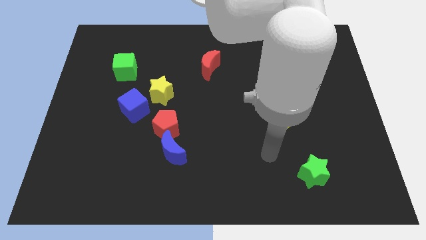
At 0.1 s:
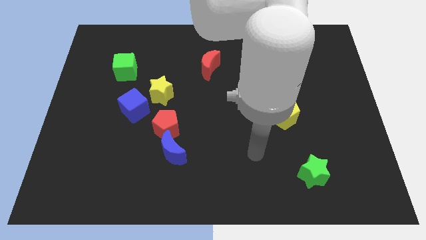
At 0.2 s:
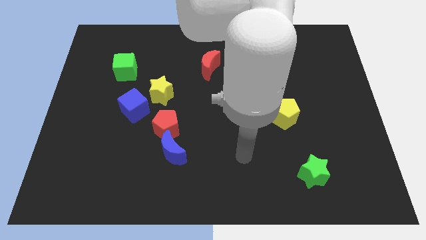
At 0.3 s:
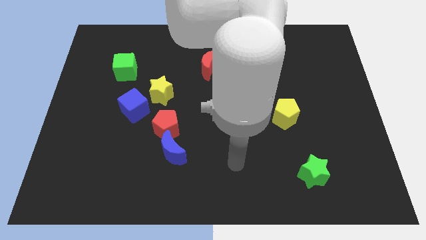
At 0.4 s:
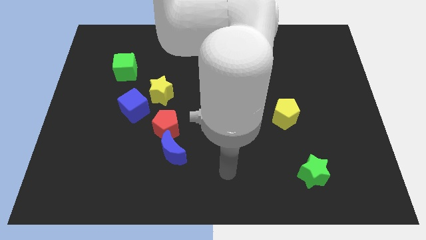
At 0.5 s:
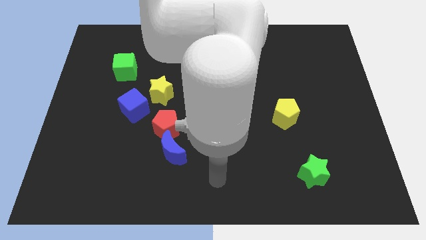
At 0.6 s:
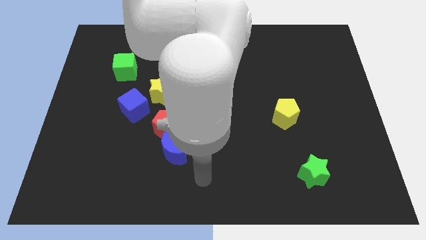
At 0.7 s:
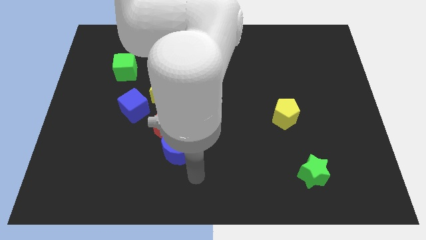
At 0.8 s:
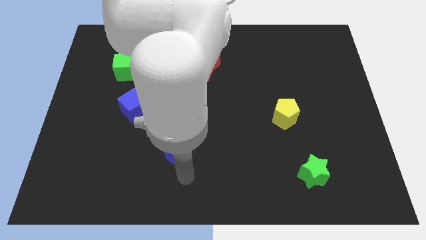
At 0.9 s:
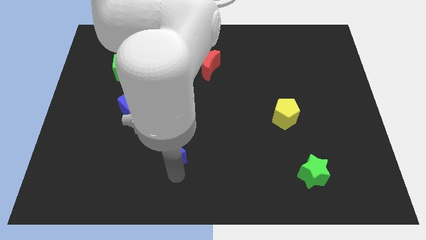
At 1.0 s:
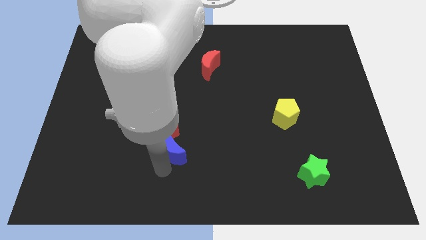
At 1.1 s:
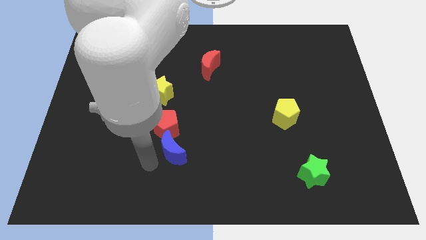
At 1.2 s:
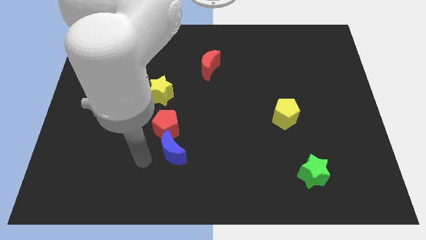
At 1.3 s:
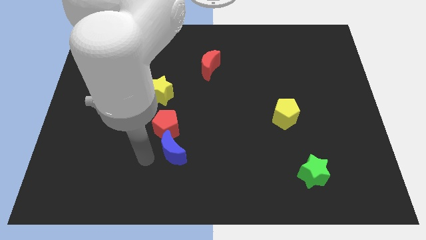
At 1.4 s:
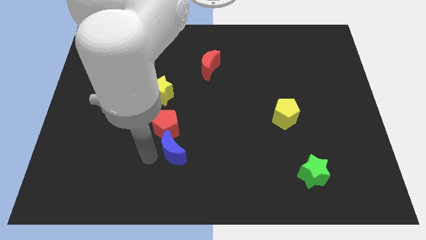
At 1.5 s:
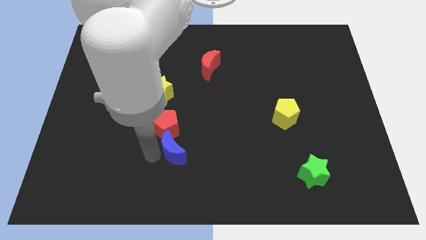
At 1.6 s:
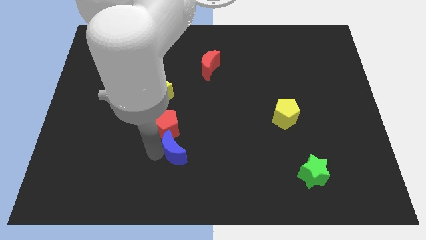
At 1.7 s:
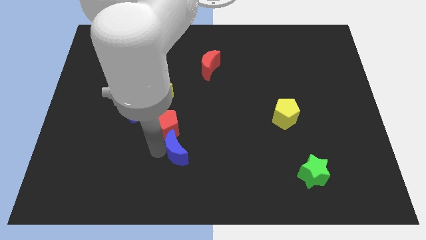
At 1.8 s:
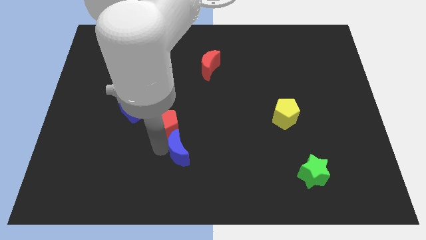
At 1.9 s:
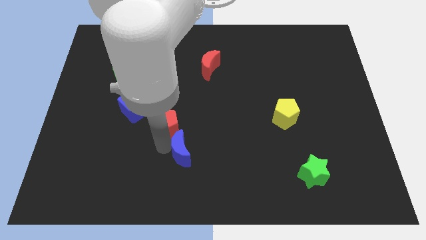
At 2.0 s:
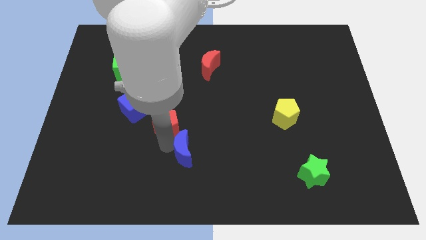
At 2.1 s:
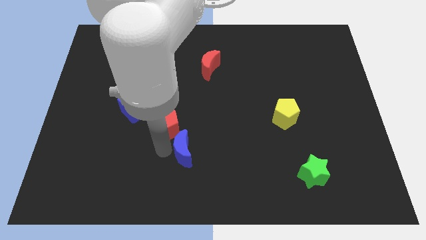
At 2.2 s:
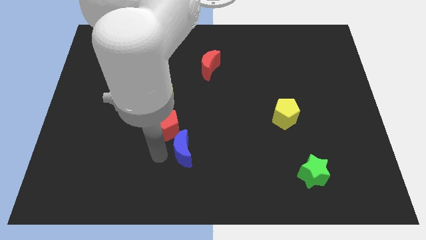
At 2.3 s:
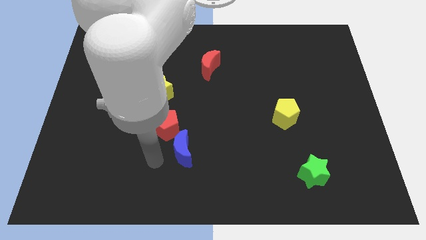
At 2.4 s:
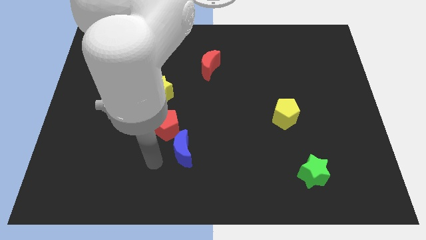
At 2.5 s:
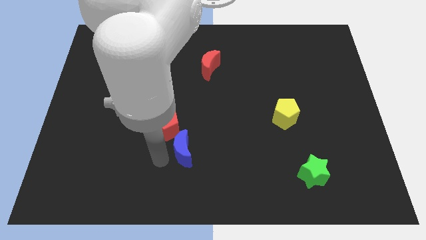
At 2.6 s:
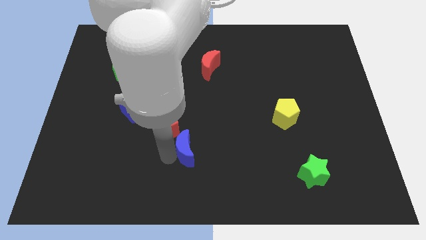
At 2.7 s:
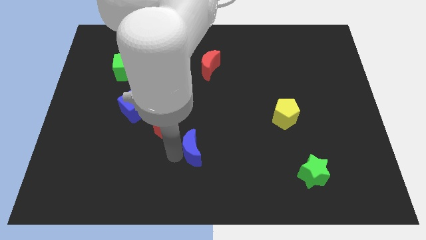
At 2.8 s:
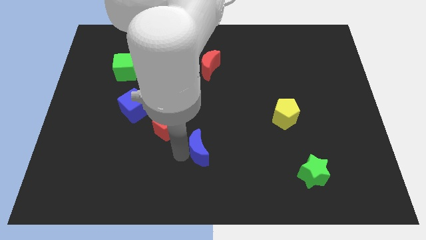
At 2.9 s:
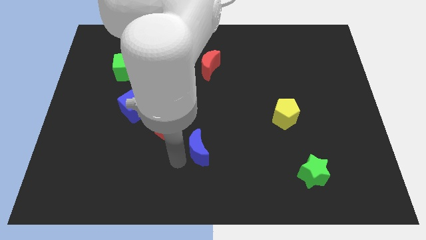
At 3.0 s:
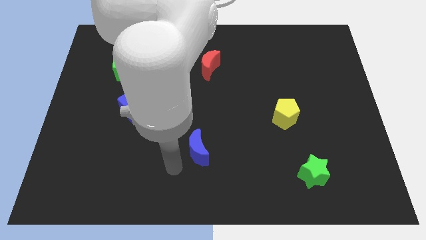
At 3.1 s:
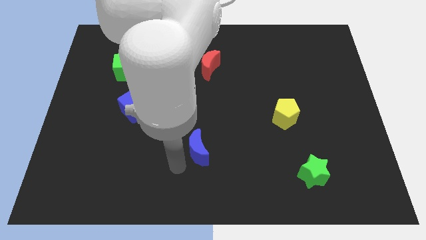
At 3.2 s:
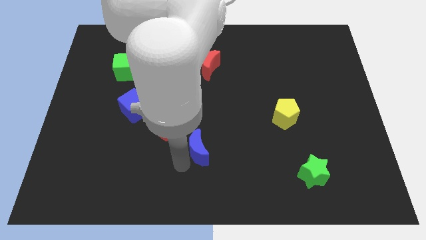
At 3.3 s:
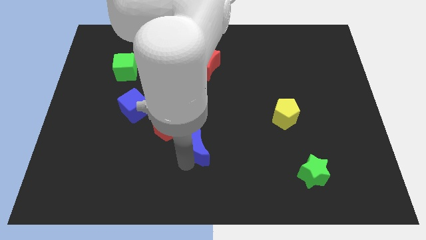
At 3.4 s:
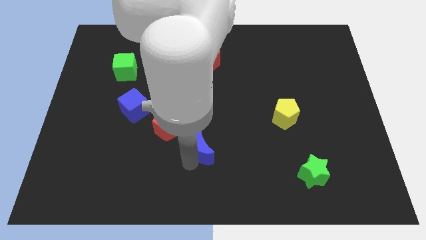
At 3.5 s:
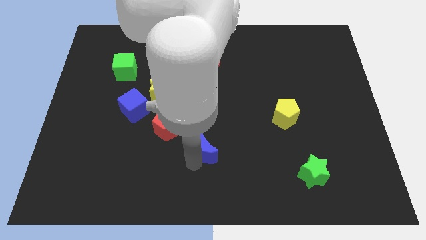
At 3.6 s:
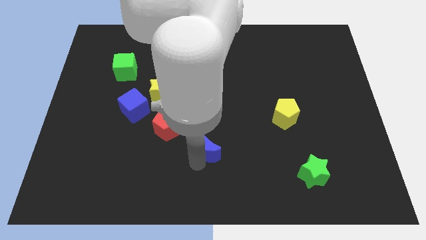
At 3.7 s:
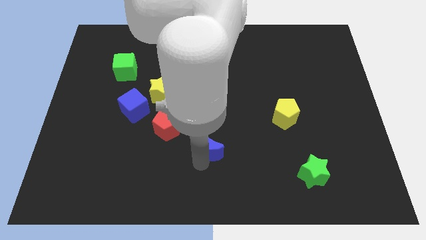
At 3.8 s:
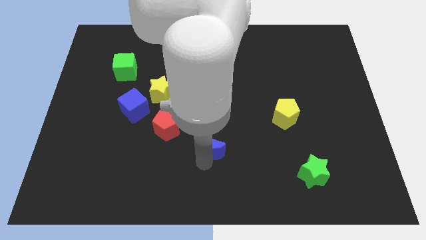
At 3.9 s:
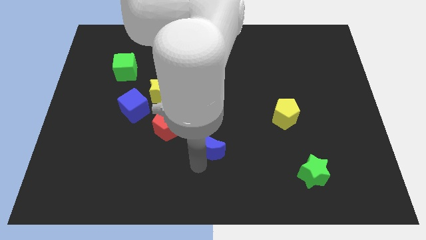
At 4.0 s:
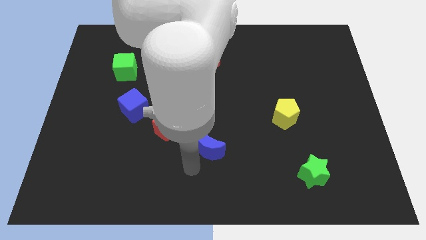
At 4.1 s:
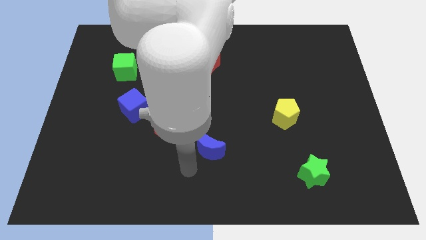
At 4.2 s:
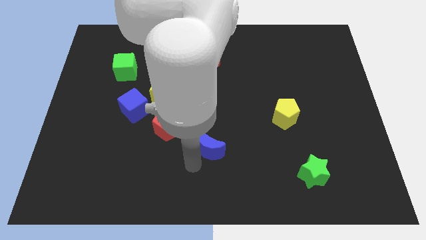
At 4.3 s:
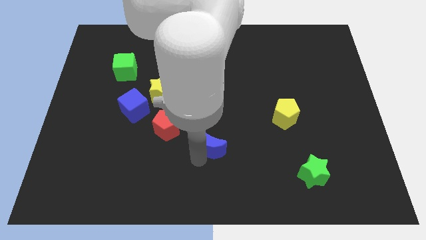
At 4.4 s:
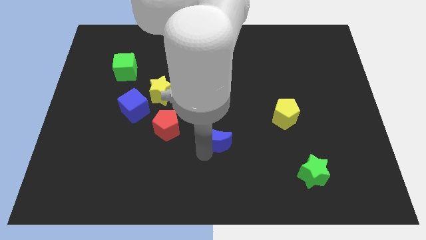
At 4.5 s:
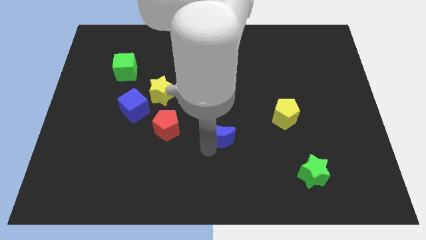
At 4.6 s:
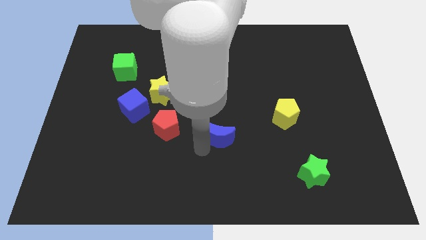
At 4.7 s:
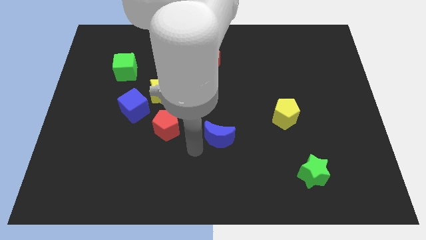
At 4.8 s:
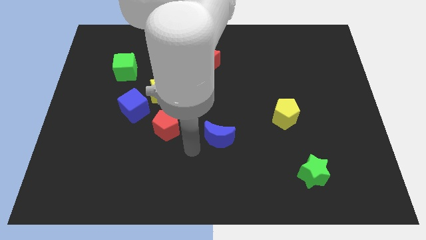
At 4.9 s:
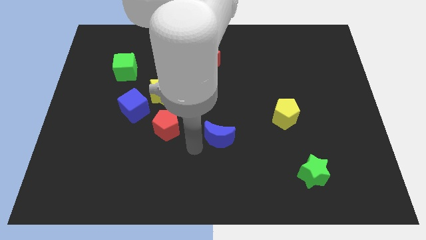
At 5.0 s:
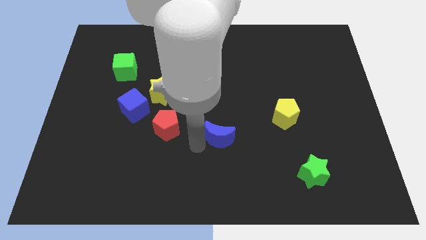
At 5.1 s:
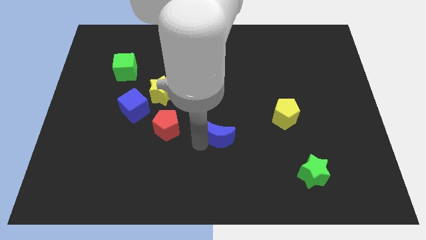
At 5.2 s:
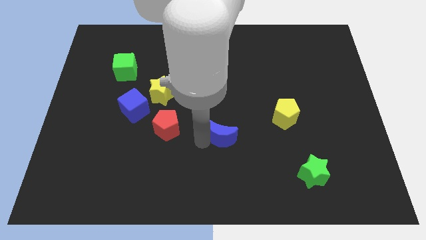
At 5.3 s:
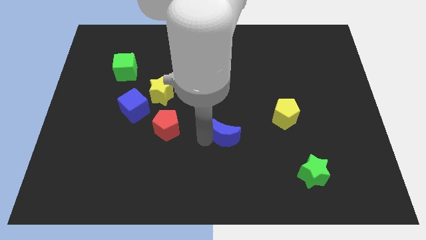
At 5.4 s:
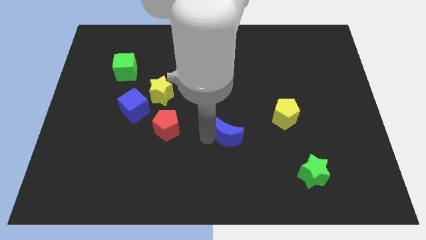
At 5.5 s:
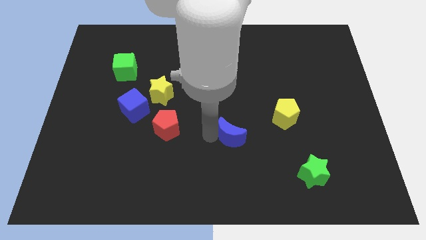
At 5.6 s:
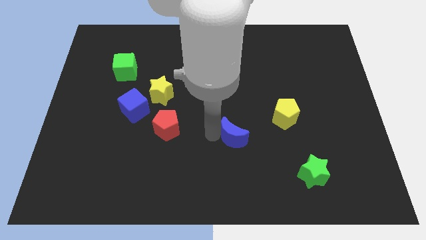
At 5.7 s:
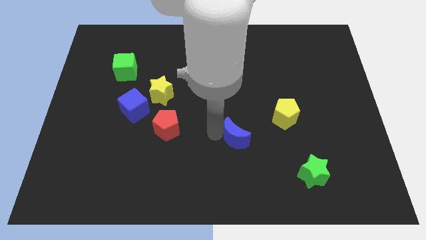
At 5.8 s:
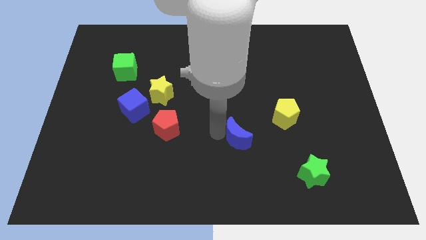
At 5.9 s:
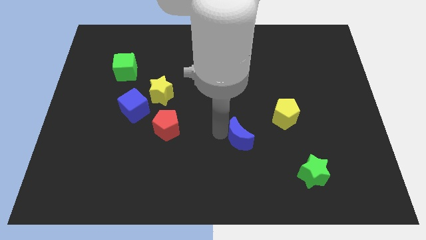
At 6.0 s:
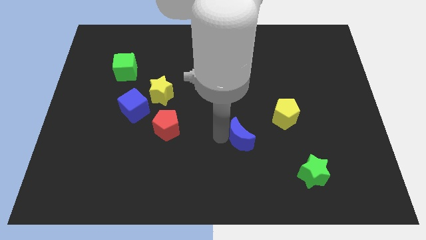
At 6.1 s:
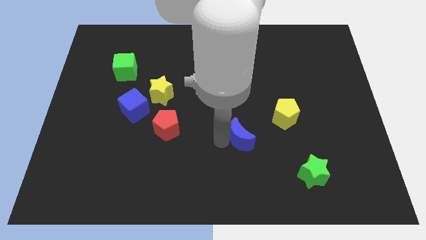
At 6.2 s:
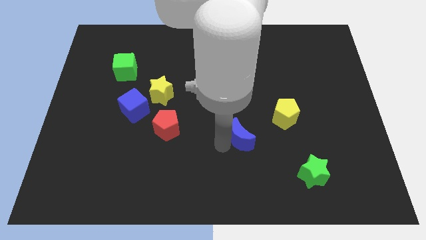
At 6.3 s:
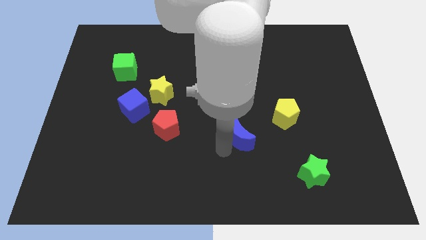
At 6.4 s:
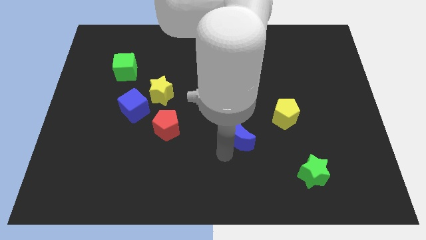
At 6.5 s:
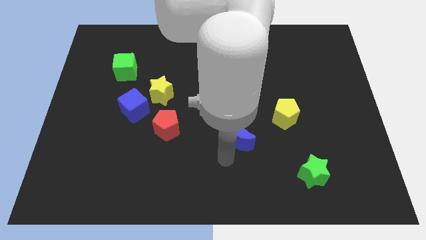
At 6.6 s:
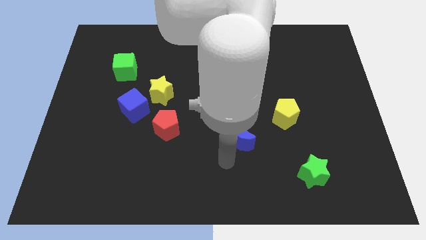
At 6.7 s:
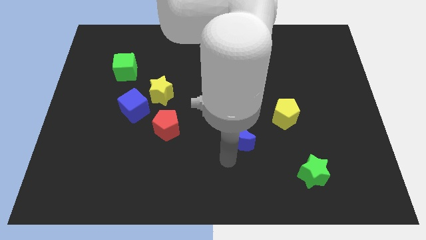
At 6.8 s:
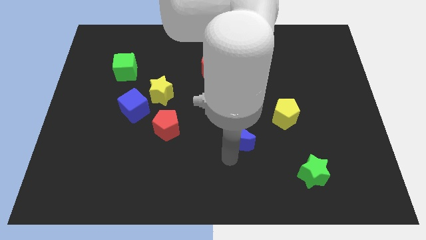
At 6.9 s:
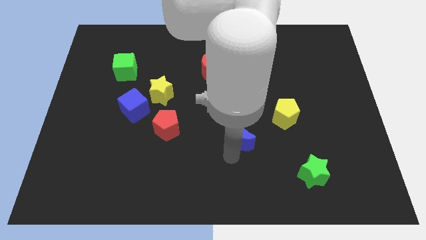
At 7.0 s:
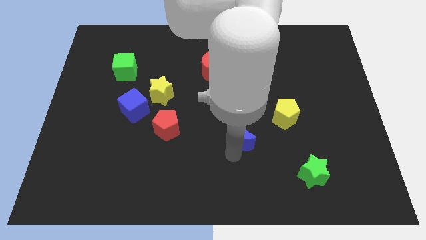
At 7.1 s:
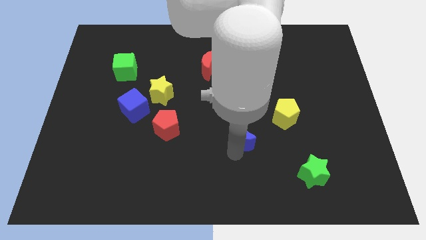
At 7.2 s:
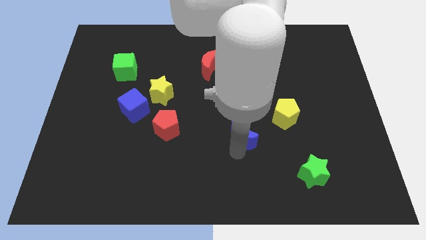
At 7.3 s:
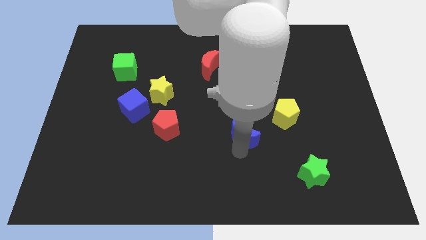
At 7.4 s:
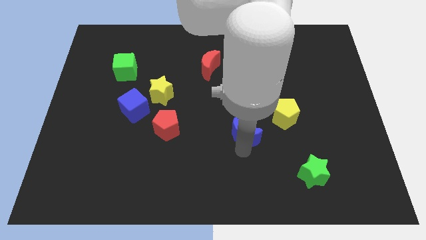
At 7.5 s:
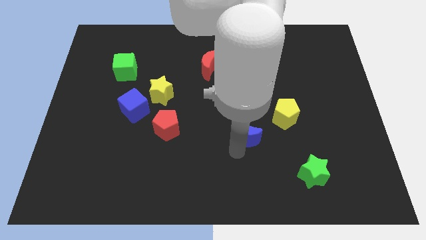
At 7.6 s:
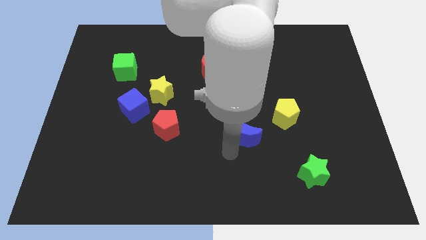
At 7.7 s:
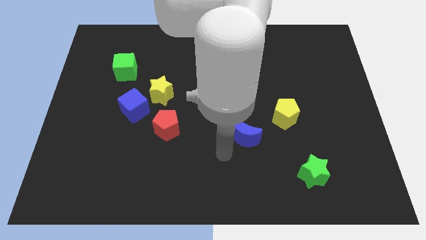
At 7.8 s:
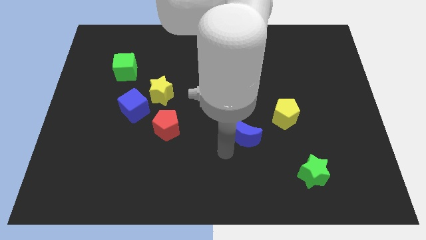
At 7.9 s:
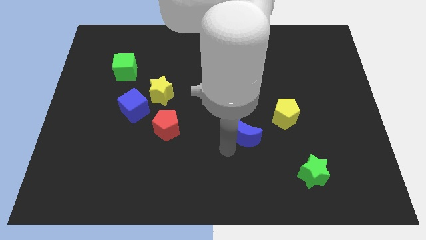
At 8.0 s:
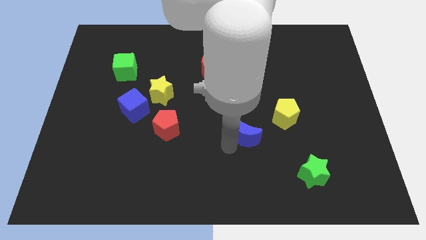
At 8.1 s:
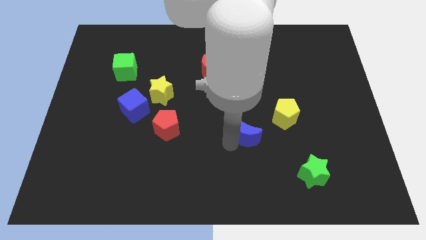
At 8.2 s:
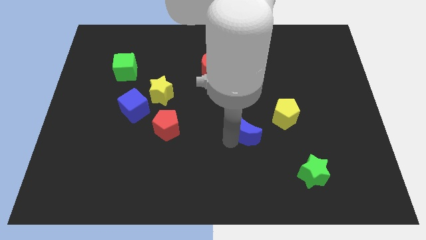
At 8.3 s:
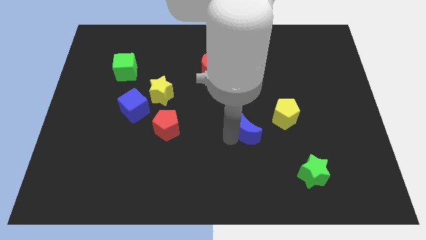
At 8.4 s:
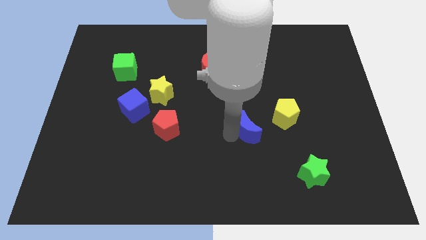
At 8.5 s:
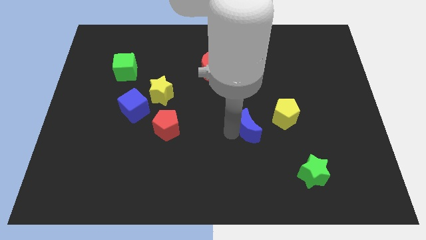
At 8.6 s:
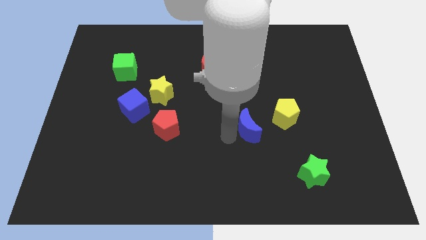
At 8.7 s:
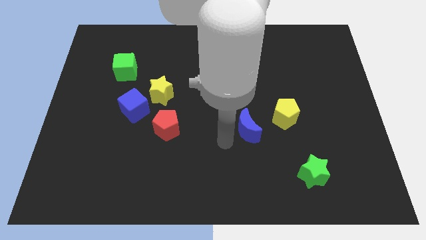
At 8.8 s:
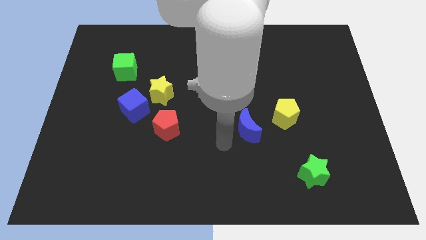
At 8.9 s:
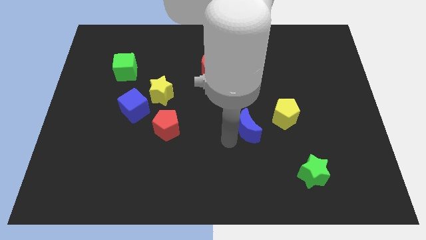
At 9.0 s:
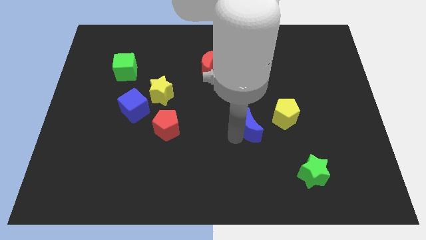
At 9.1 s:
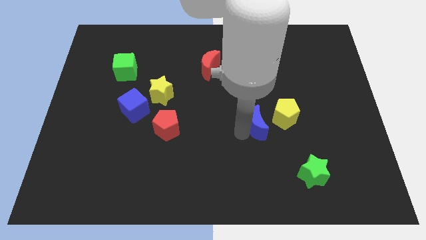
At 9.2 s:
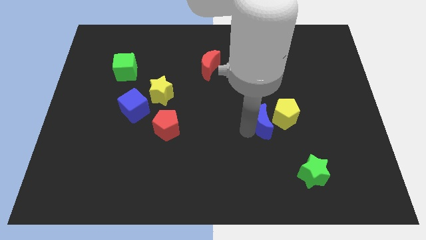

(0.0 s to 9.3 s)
move the blue moon next to the yellow pentagon
